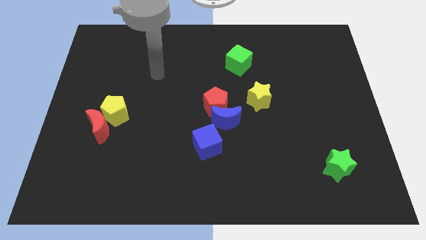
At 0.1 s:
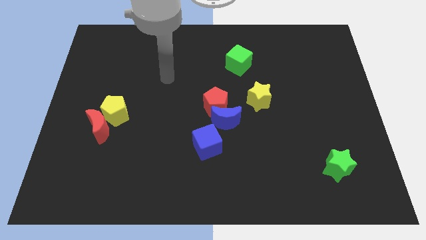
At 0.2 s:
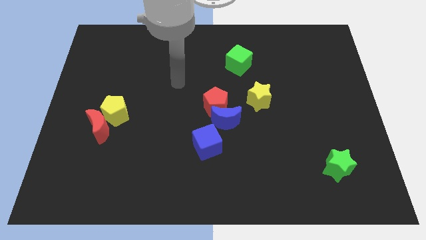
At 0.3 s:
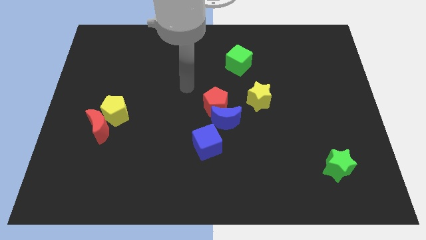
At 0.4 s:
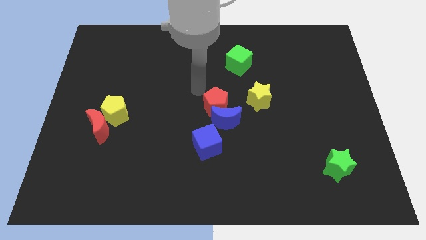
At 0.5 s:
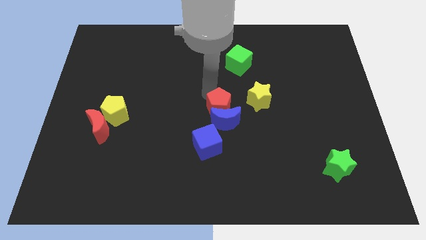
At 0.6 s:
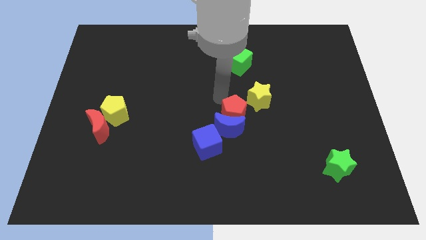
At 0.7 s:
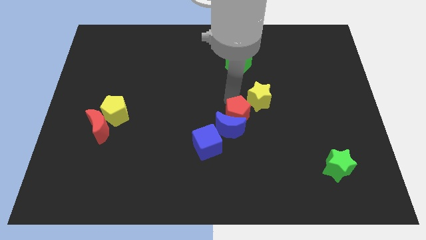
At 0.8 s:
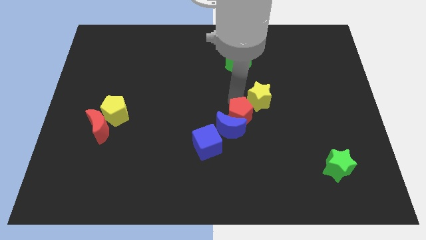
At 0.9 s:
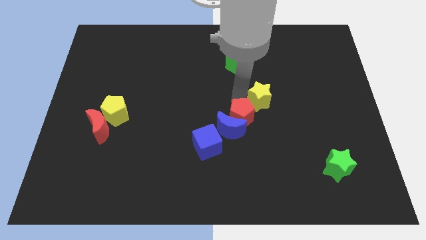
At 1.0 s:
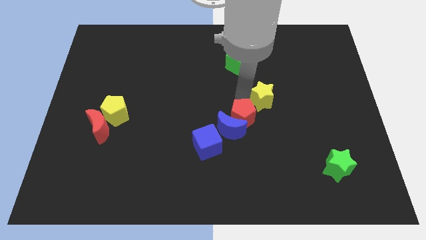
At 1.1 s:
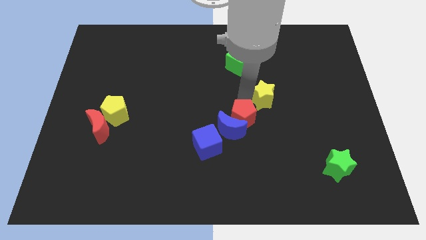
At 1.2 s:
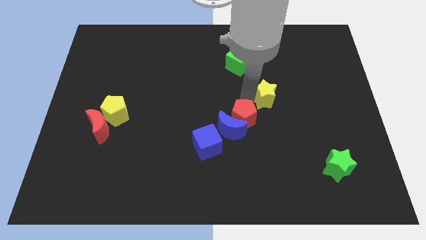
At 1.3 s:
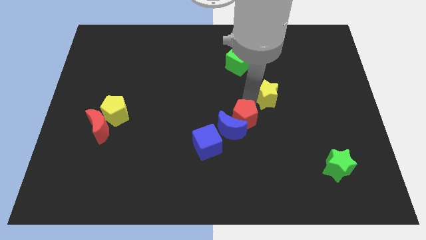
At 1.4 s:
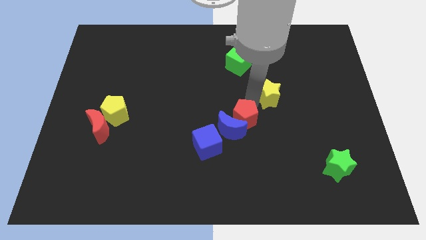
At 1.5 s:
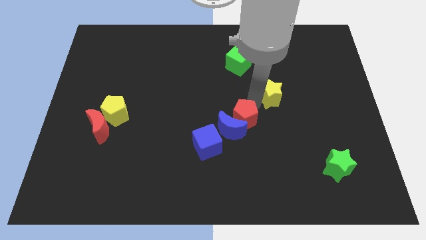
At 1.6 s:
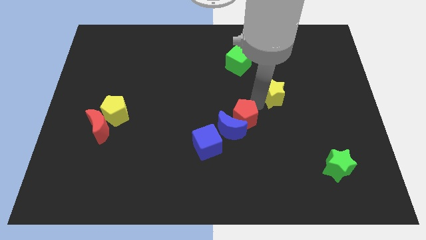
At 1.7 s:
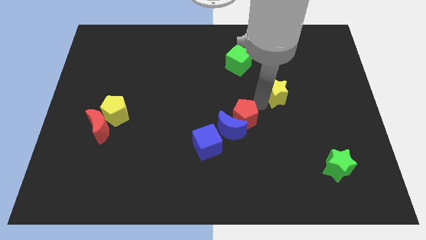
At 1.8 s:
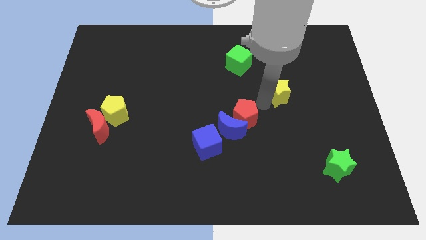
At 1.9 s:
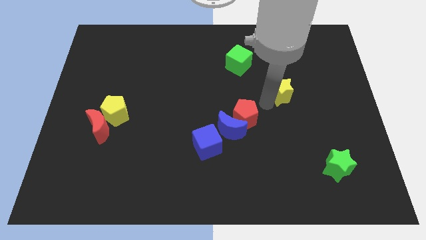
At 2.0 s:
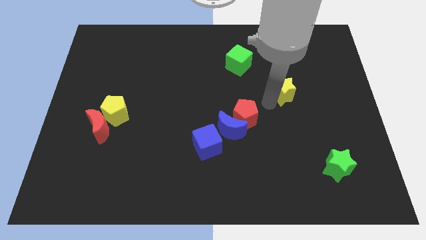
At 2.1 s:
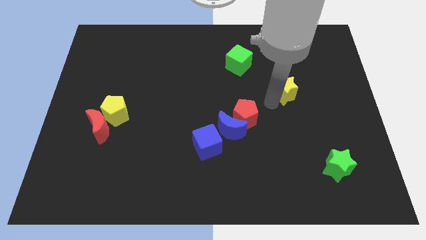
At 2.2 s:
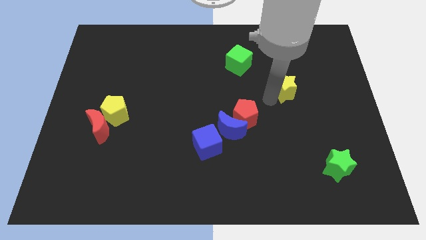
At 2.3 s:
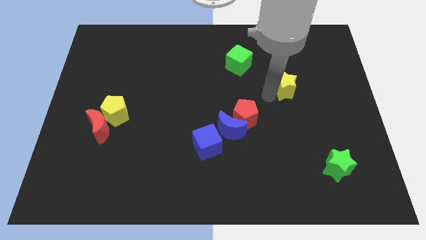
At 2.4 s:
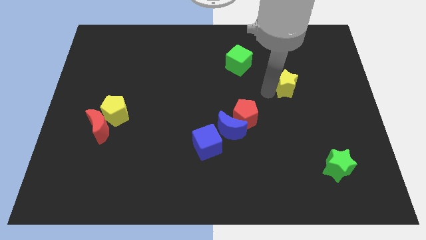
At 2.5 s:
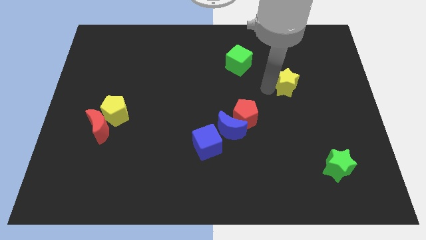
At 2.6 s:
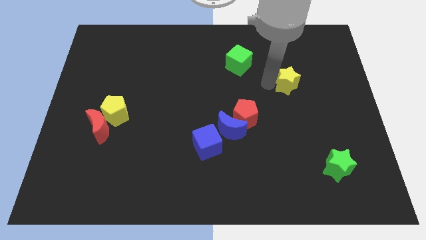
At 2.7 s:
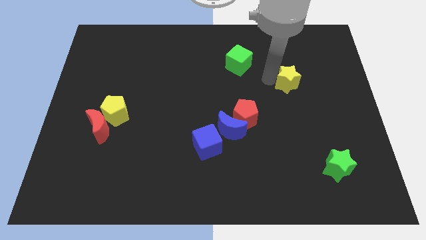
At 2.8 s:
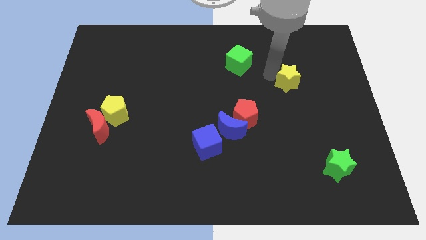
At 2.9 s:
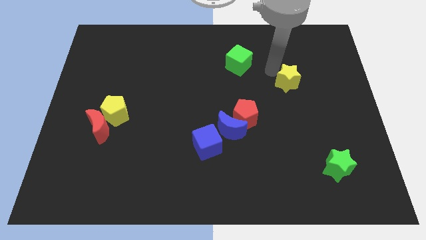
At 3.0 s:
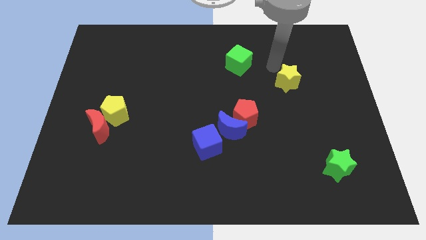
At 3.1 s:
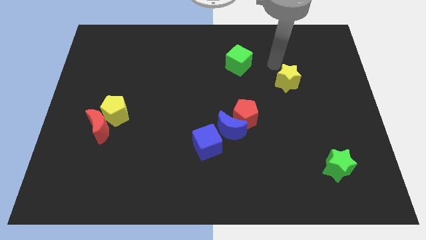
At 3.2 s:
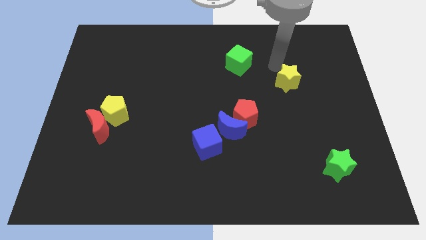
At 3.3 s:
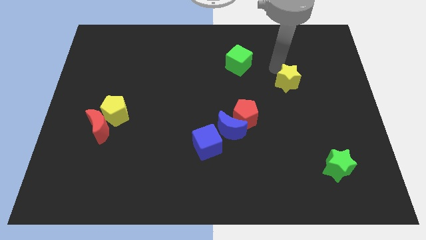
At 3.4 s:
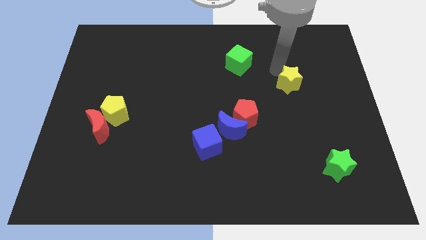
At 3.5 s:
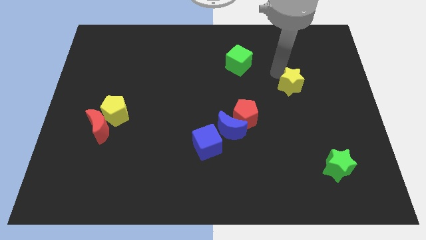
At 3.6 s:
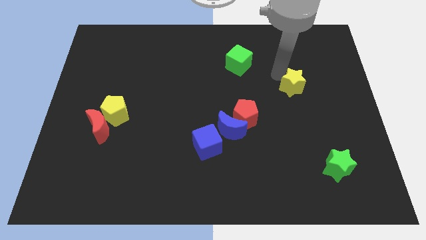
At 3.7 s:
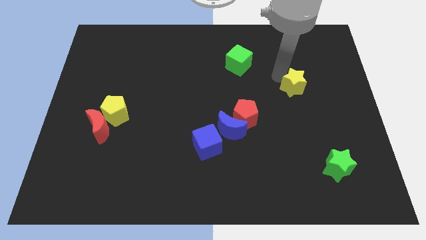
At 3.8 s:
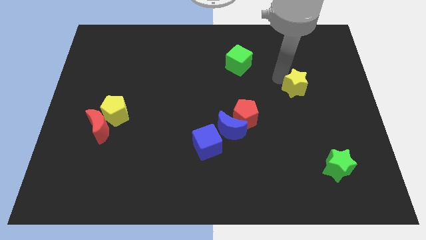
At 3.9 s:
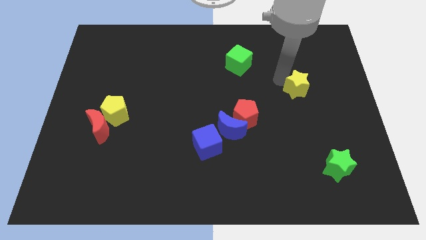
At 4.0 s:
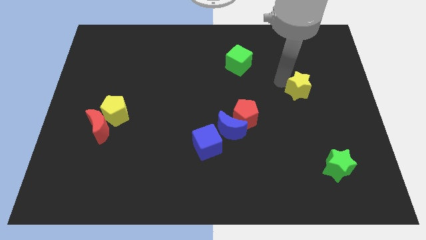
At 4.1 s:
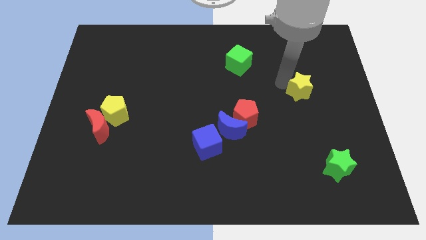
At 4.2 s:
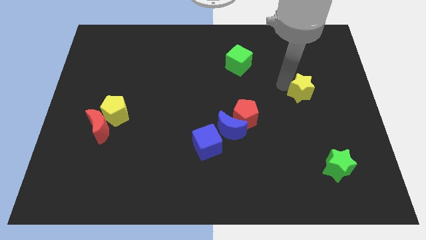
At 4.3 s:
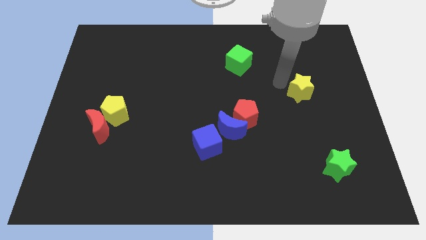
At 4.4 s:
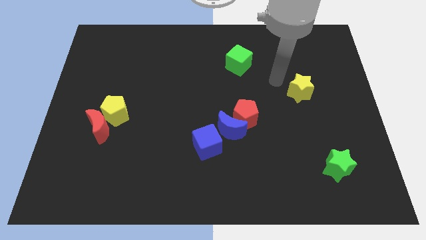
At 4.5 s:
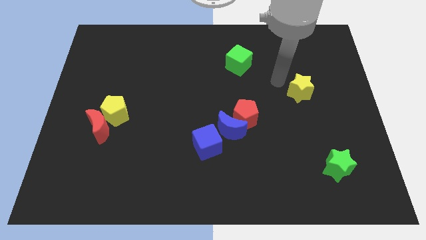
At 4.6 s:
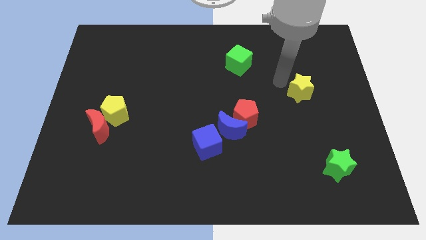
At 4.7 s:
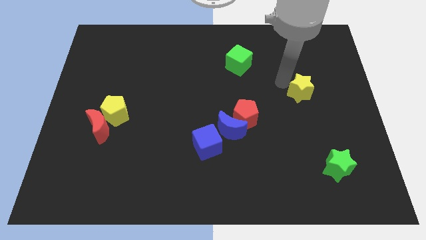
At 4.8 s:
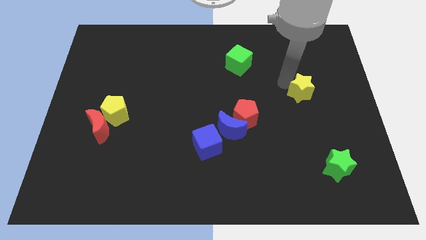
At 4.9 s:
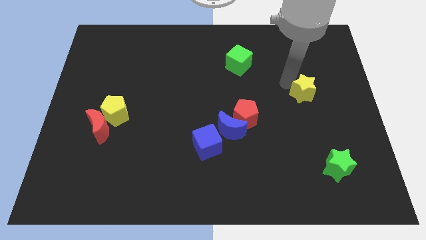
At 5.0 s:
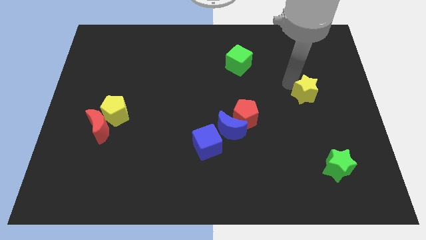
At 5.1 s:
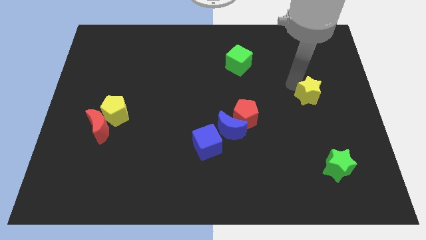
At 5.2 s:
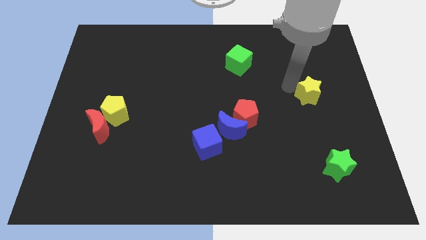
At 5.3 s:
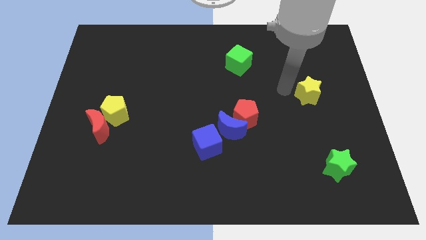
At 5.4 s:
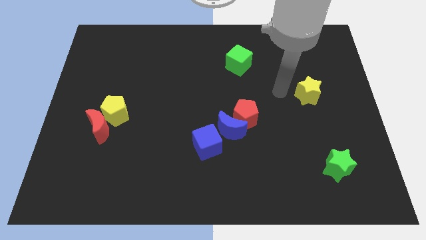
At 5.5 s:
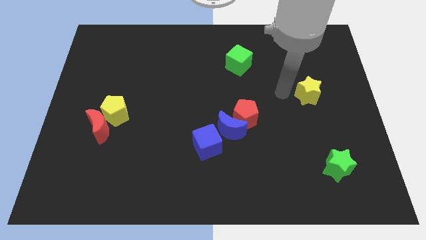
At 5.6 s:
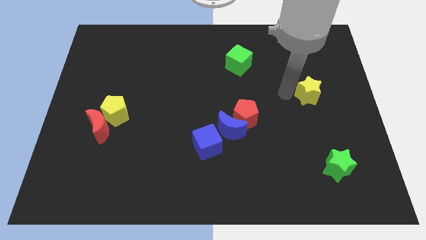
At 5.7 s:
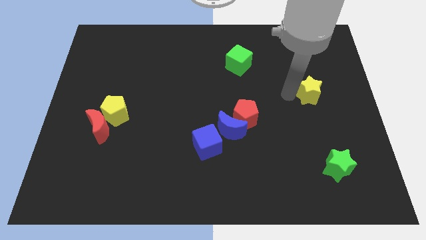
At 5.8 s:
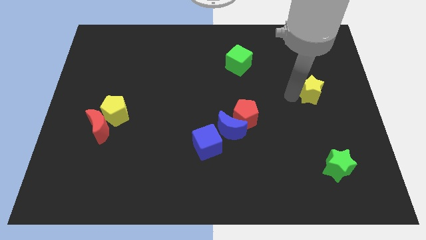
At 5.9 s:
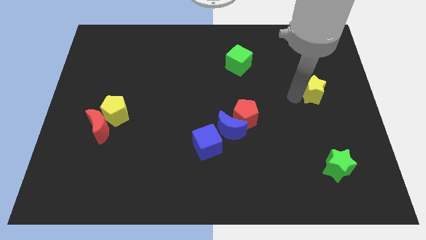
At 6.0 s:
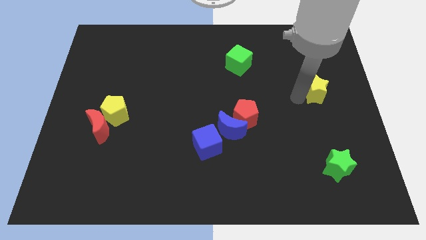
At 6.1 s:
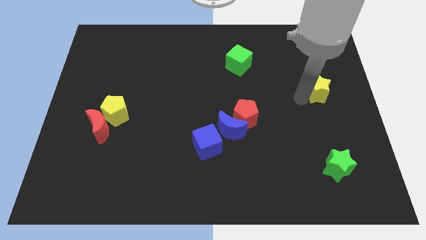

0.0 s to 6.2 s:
push the yellow star to the right side

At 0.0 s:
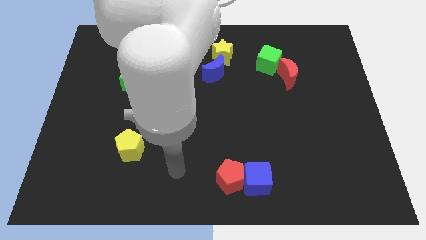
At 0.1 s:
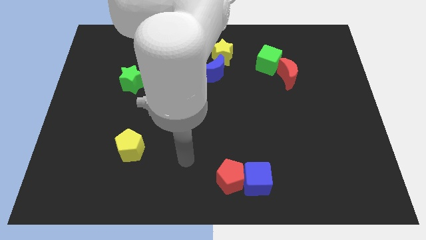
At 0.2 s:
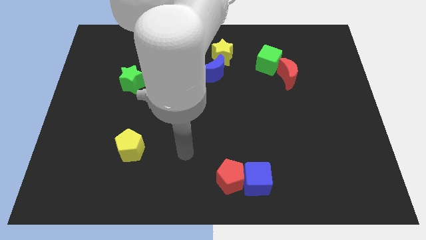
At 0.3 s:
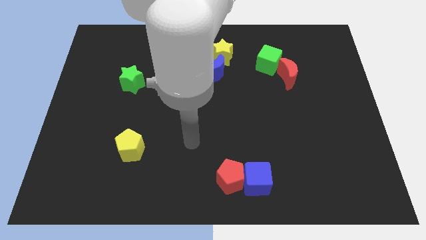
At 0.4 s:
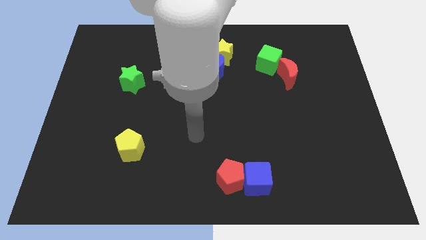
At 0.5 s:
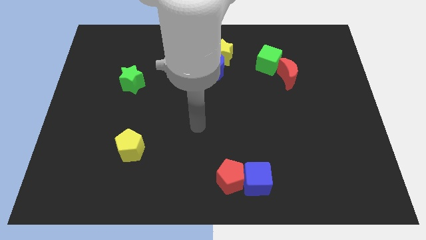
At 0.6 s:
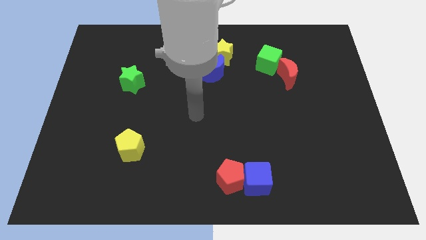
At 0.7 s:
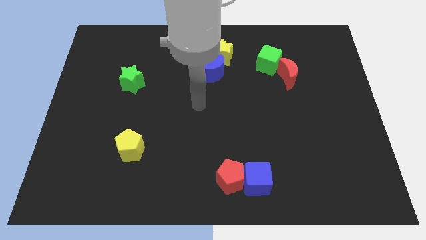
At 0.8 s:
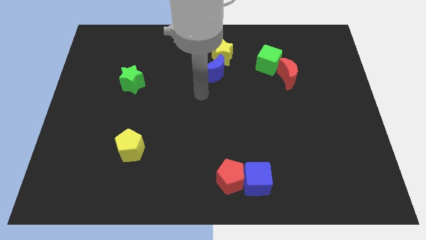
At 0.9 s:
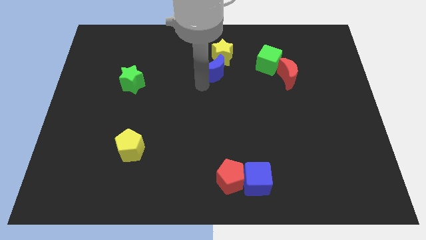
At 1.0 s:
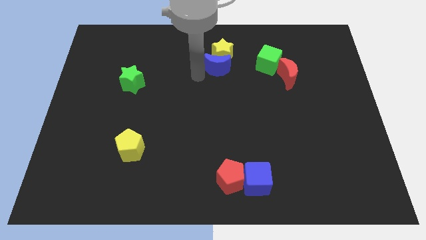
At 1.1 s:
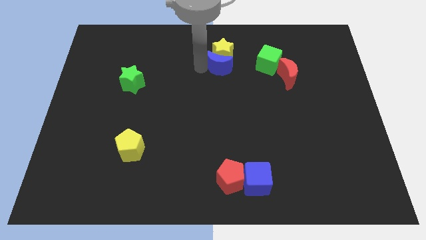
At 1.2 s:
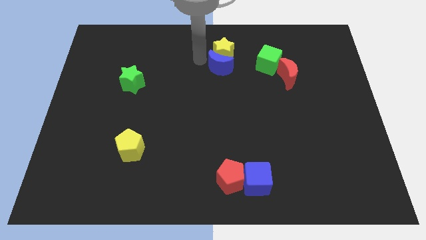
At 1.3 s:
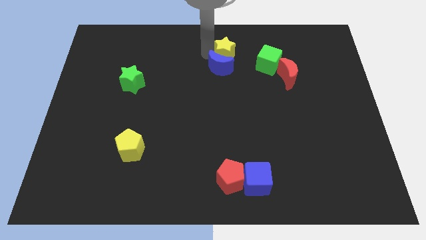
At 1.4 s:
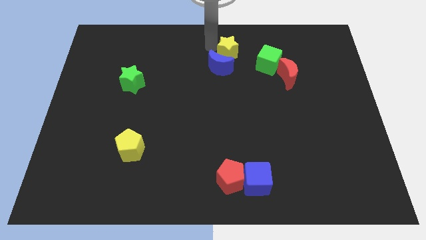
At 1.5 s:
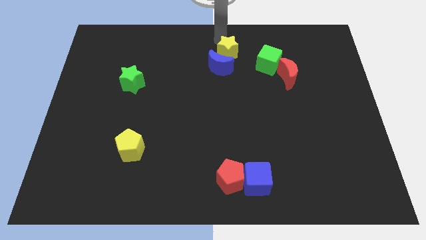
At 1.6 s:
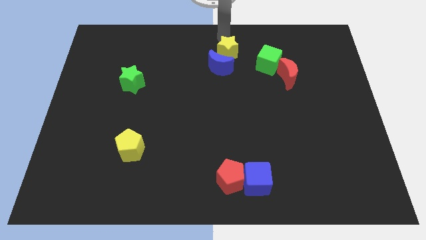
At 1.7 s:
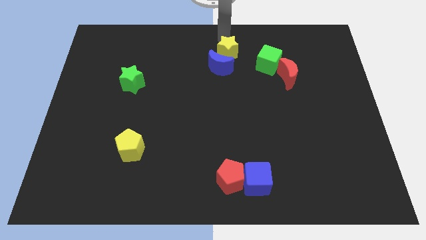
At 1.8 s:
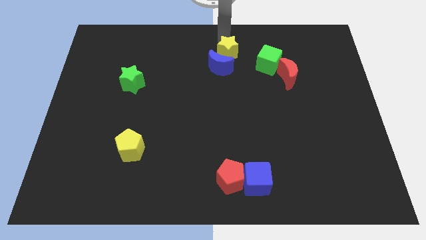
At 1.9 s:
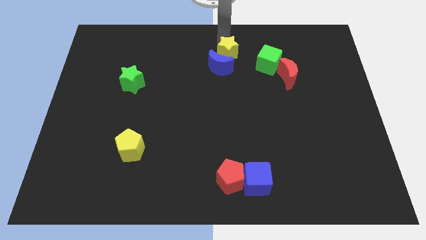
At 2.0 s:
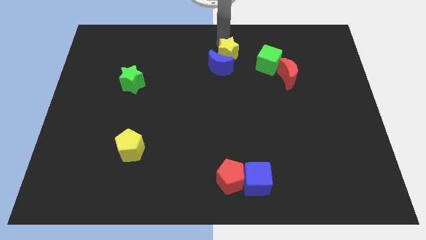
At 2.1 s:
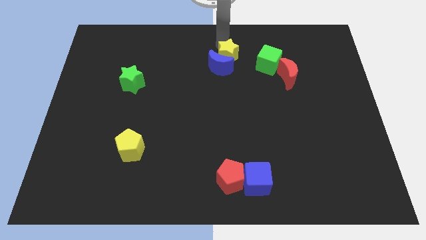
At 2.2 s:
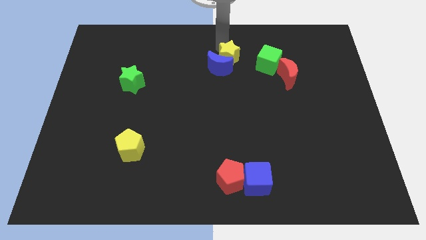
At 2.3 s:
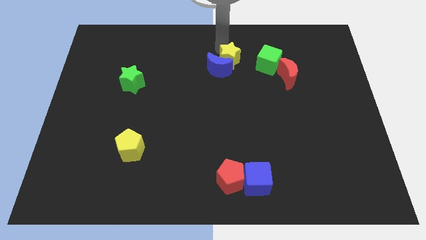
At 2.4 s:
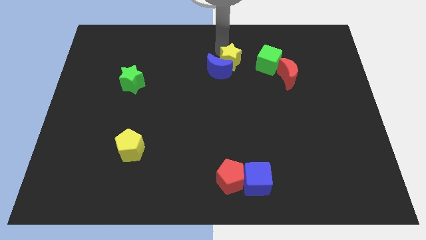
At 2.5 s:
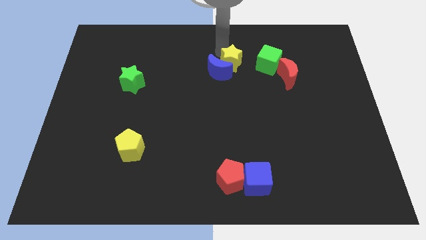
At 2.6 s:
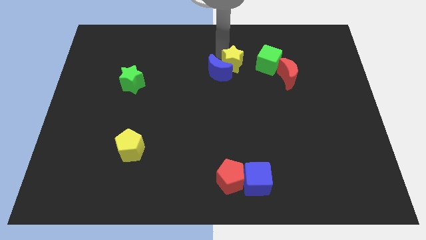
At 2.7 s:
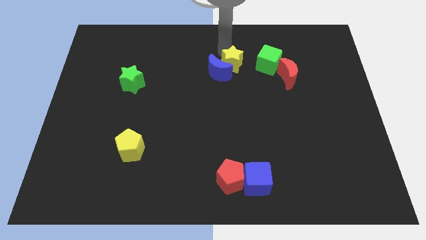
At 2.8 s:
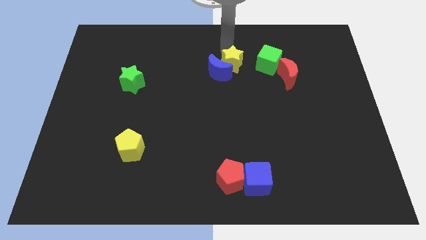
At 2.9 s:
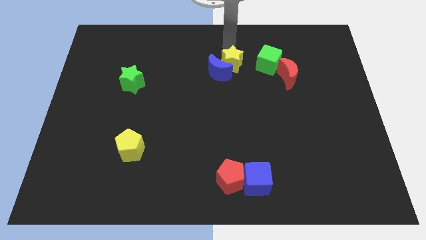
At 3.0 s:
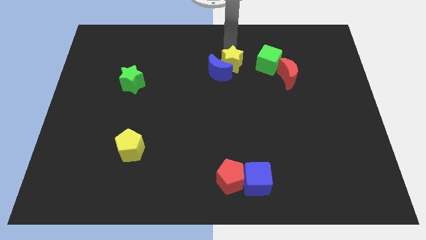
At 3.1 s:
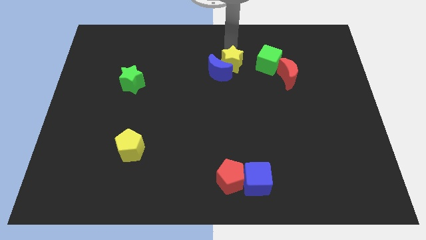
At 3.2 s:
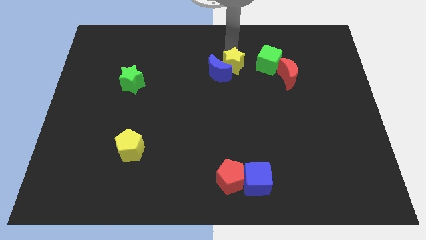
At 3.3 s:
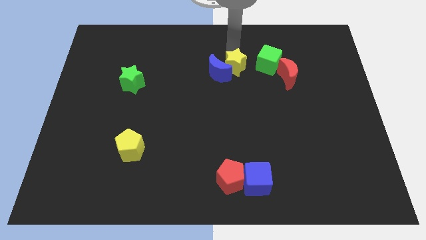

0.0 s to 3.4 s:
push the yellow star to the middle
